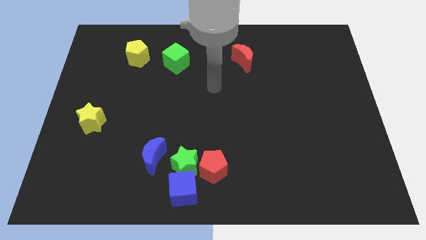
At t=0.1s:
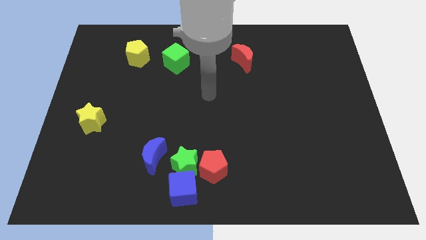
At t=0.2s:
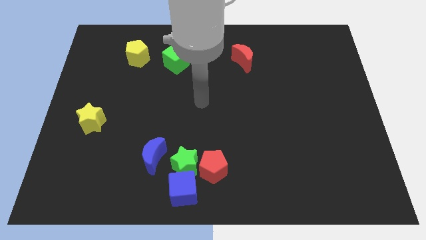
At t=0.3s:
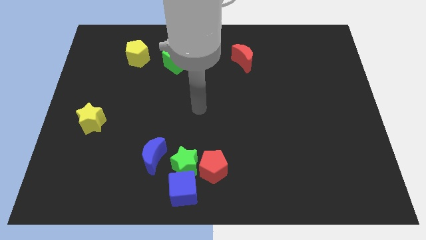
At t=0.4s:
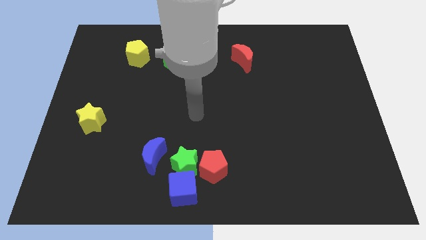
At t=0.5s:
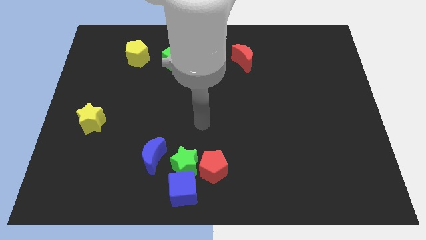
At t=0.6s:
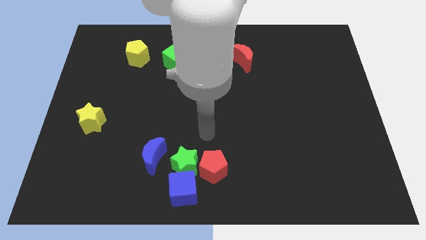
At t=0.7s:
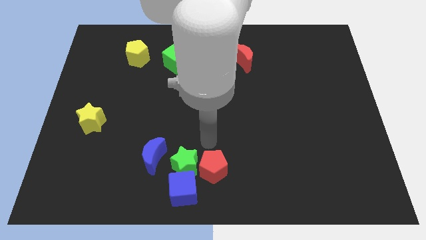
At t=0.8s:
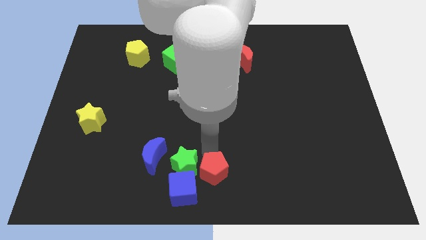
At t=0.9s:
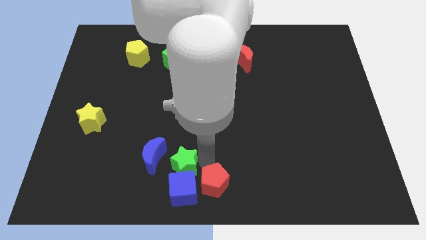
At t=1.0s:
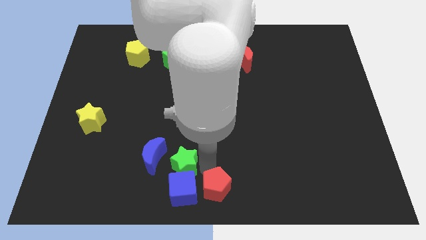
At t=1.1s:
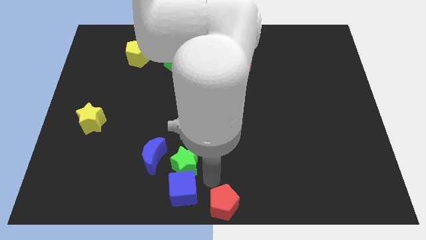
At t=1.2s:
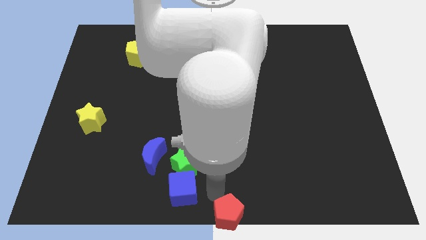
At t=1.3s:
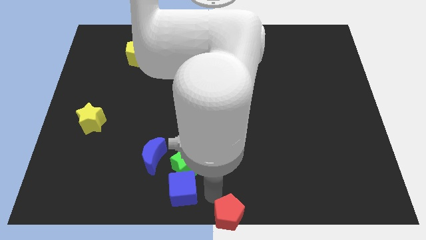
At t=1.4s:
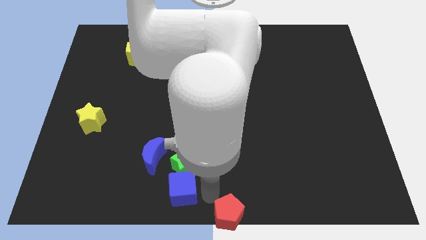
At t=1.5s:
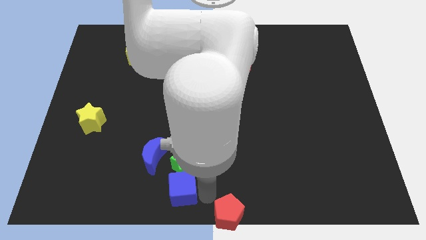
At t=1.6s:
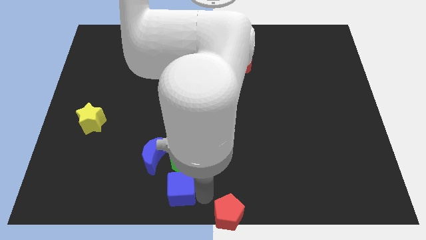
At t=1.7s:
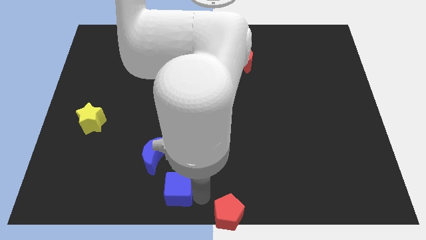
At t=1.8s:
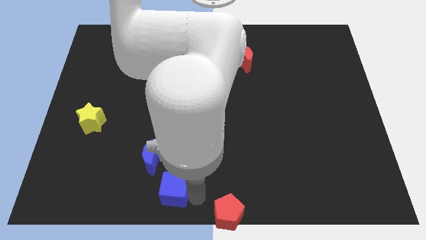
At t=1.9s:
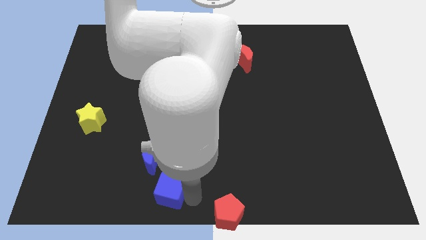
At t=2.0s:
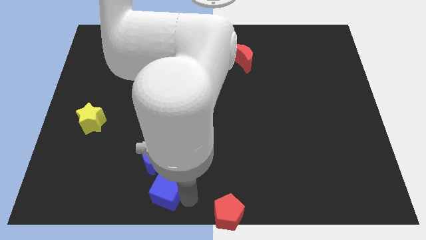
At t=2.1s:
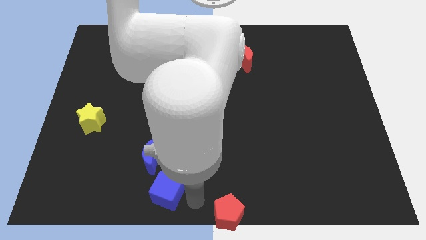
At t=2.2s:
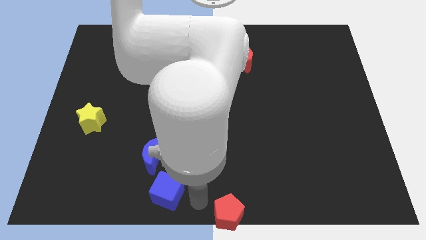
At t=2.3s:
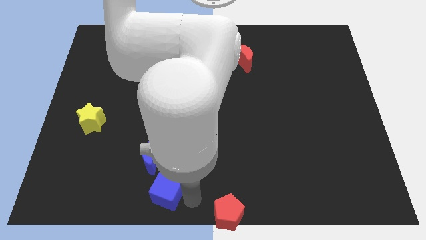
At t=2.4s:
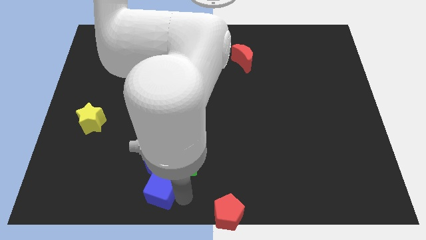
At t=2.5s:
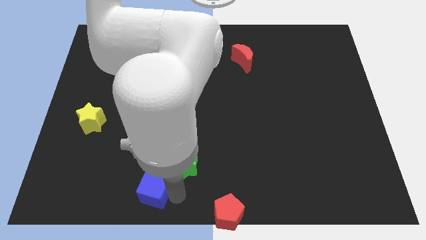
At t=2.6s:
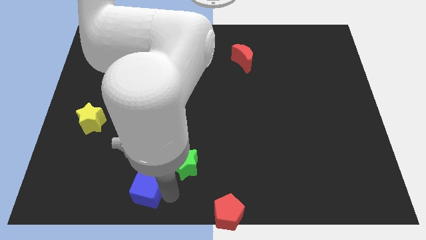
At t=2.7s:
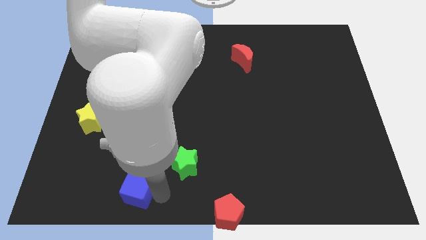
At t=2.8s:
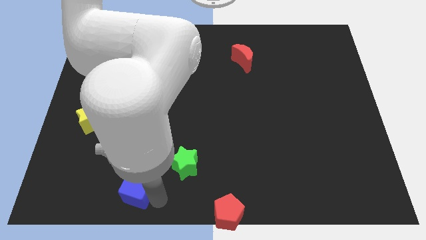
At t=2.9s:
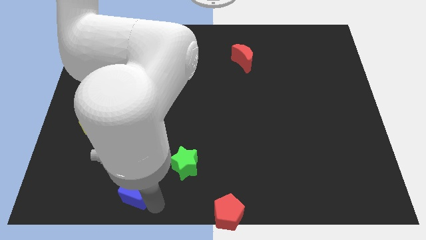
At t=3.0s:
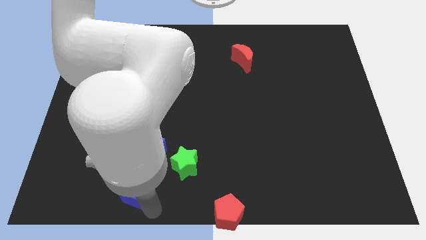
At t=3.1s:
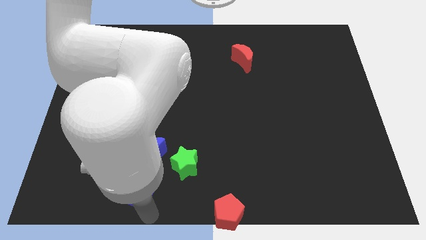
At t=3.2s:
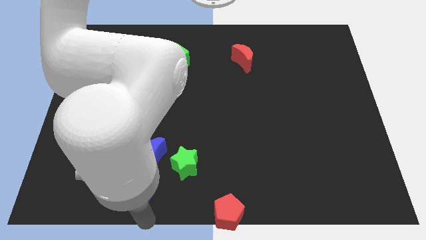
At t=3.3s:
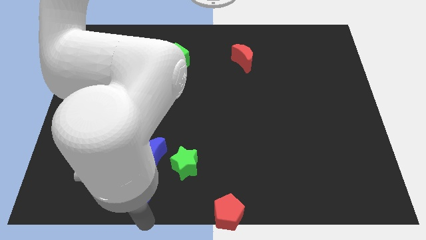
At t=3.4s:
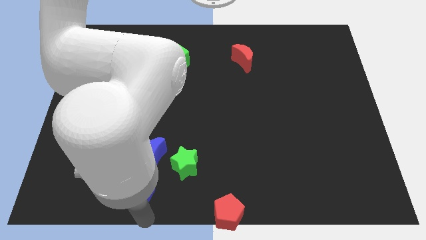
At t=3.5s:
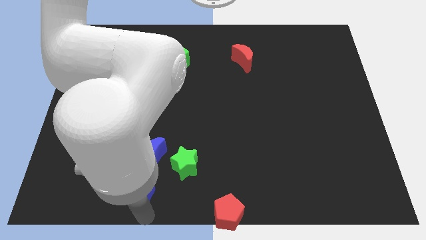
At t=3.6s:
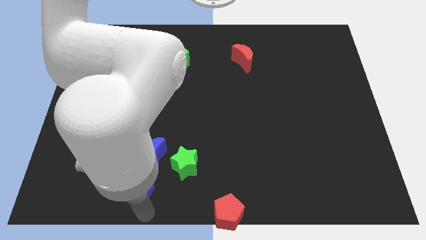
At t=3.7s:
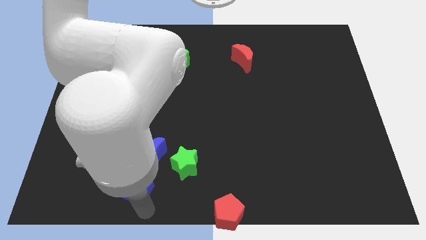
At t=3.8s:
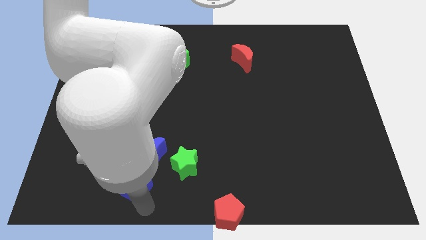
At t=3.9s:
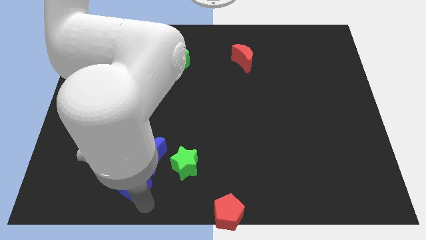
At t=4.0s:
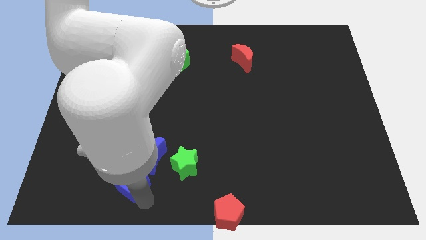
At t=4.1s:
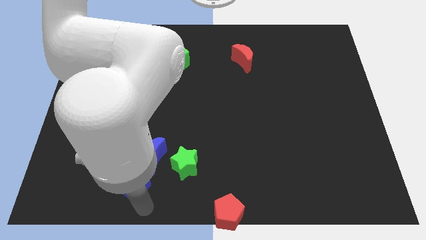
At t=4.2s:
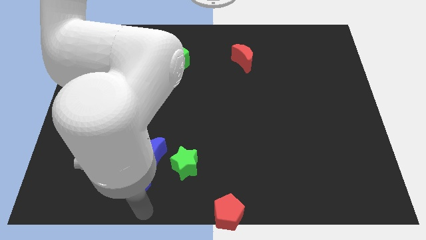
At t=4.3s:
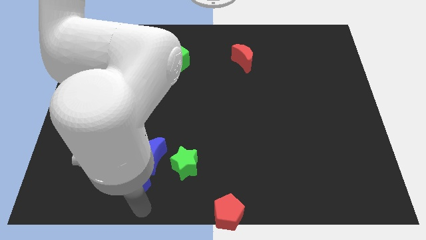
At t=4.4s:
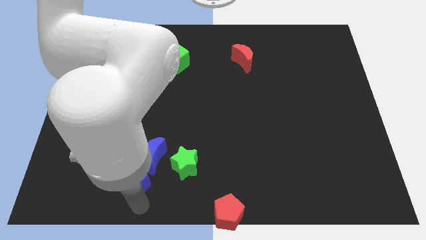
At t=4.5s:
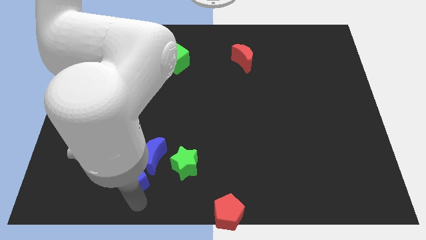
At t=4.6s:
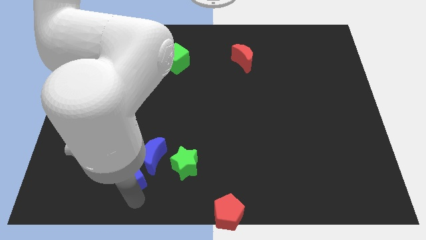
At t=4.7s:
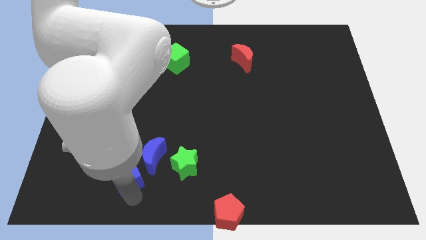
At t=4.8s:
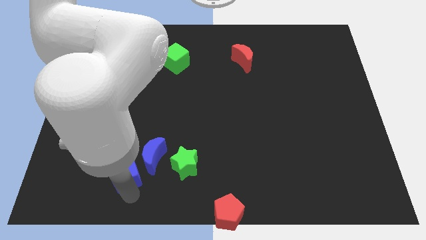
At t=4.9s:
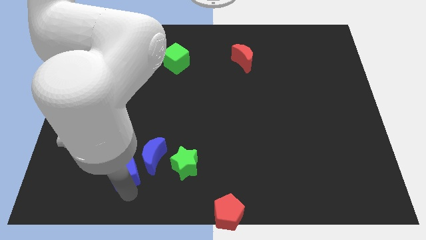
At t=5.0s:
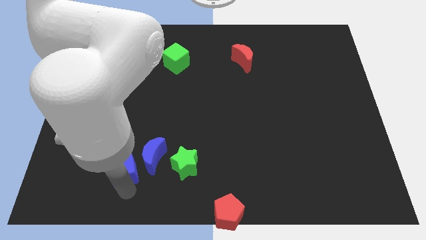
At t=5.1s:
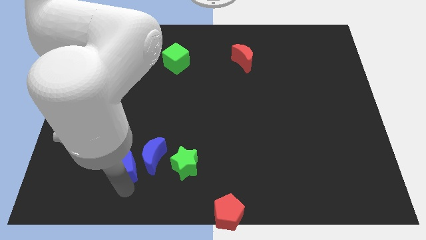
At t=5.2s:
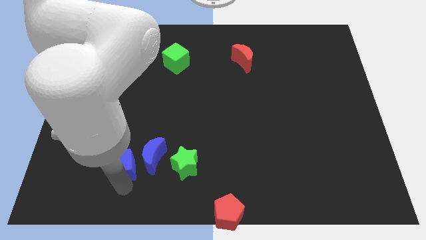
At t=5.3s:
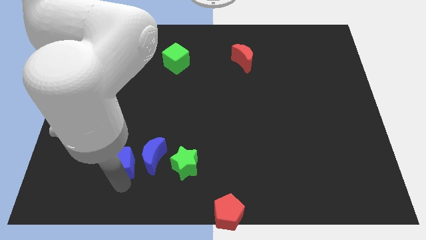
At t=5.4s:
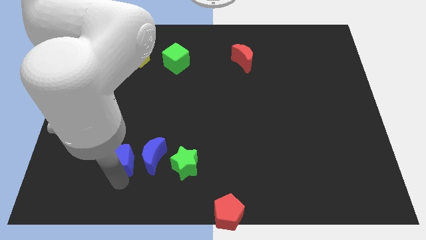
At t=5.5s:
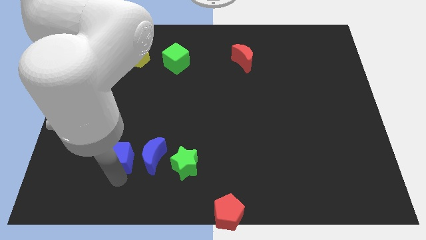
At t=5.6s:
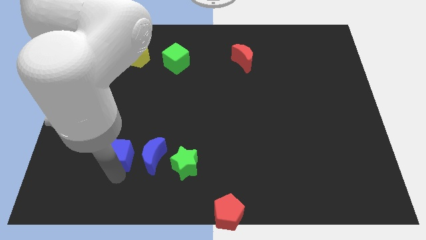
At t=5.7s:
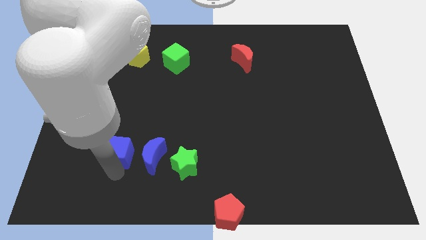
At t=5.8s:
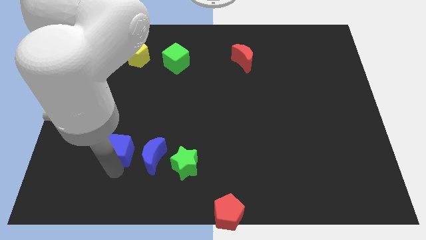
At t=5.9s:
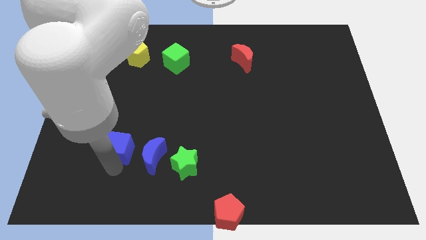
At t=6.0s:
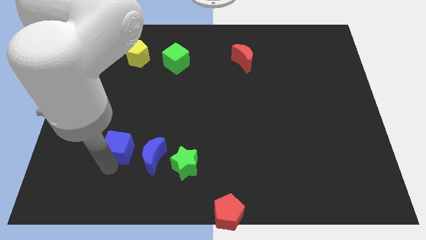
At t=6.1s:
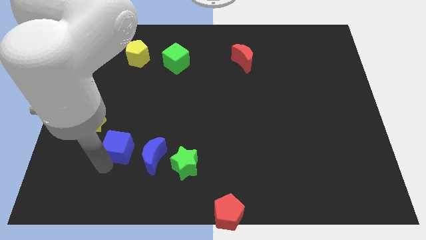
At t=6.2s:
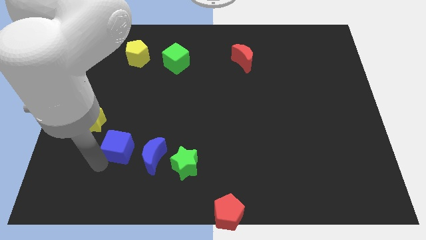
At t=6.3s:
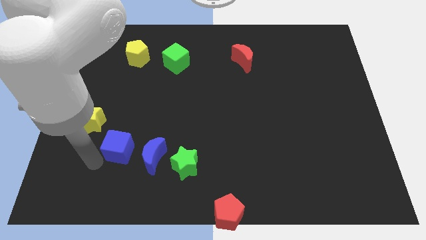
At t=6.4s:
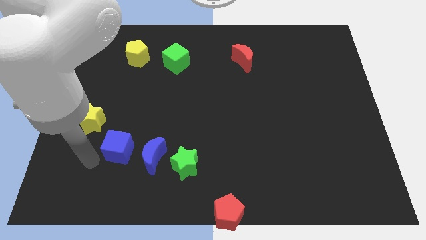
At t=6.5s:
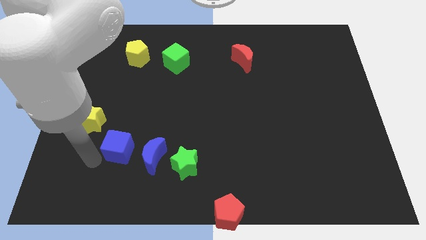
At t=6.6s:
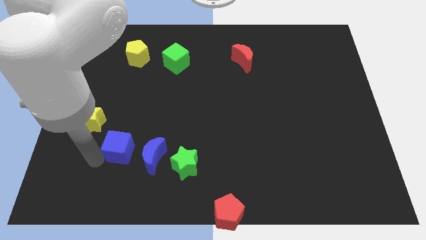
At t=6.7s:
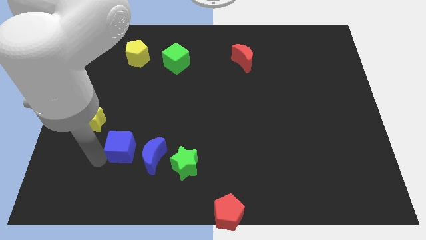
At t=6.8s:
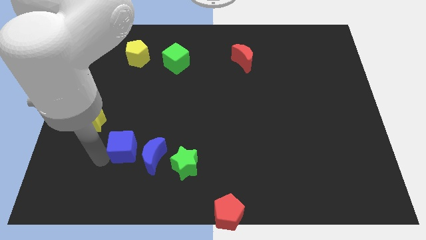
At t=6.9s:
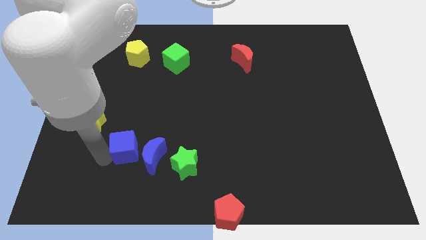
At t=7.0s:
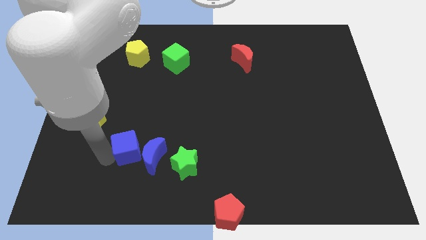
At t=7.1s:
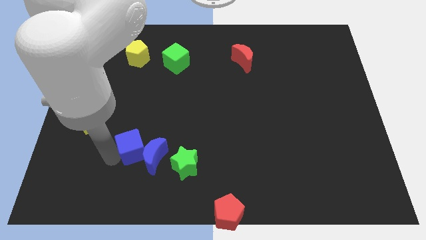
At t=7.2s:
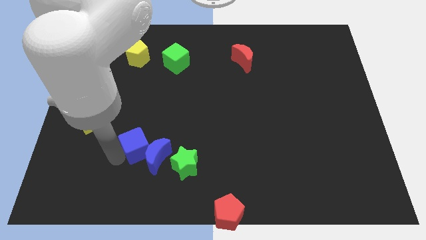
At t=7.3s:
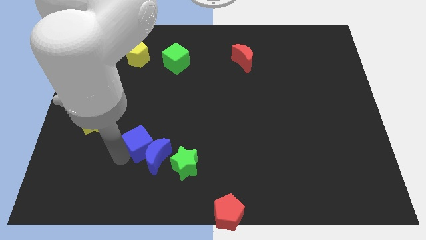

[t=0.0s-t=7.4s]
put the blue cube to the top of the blue moon
